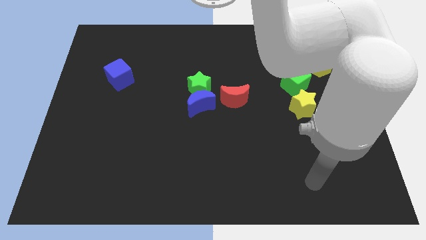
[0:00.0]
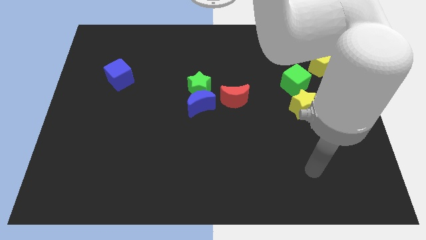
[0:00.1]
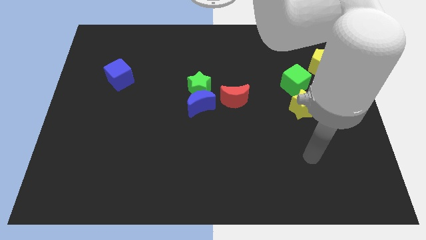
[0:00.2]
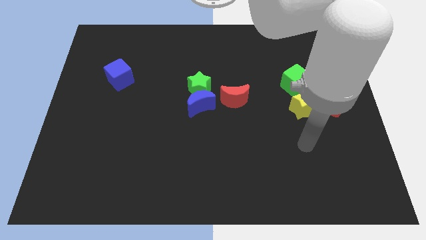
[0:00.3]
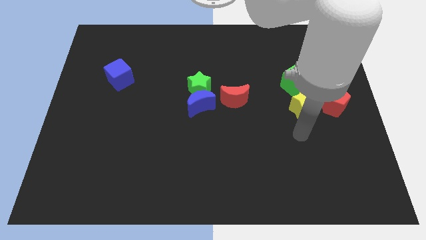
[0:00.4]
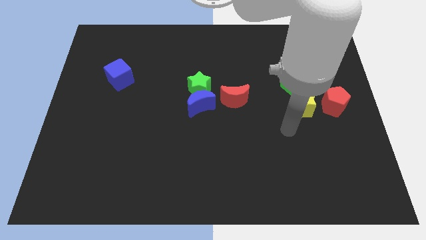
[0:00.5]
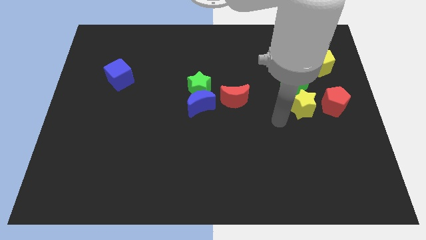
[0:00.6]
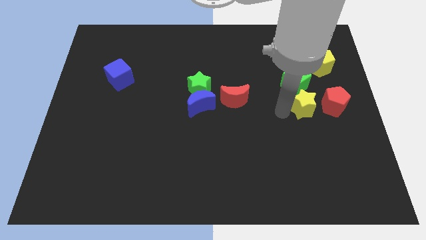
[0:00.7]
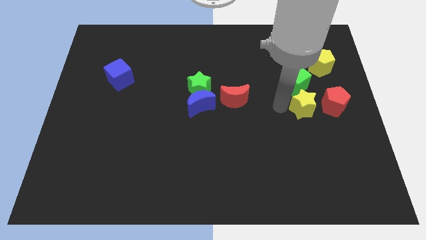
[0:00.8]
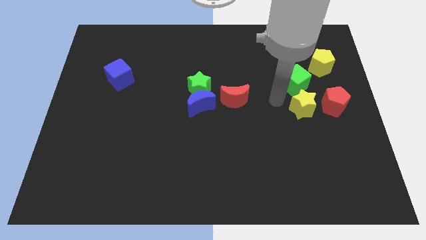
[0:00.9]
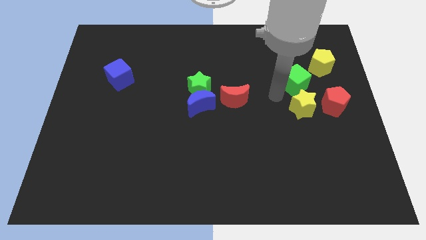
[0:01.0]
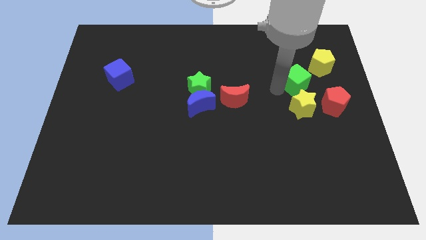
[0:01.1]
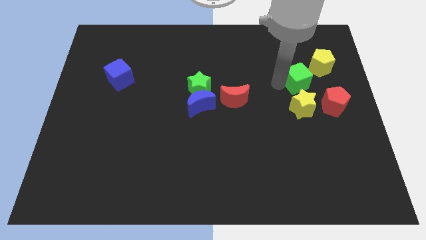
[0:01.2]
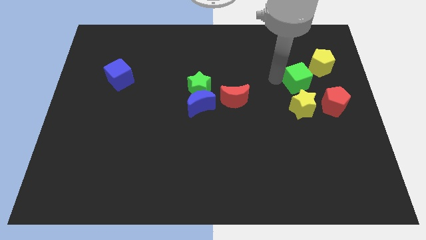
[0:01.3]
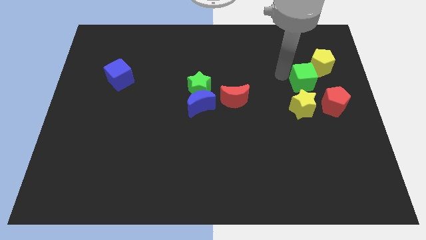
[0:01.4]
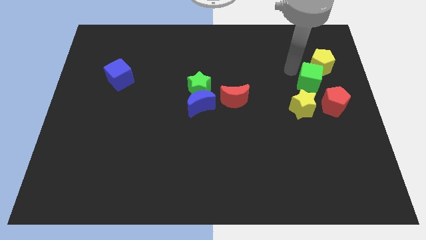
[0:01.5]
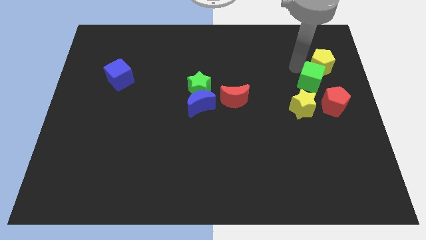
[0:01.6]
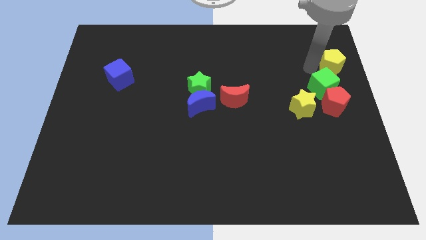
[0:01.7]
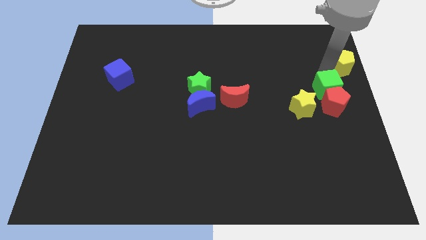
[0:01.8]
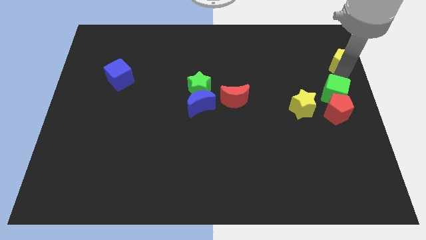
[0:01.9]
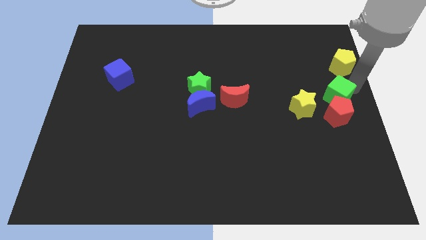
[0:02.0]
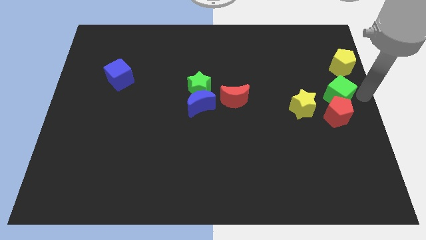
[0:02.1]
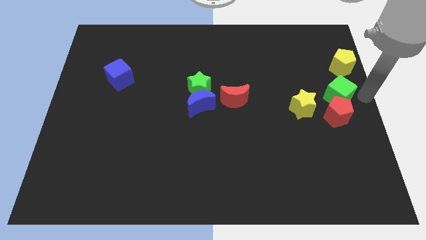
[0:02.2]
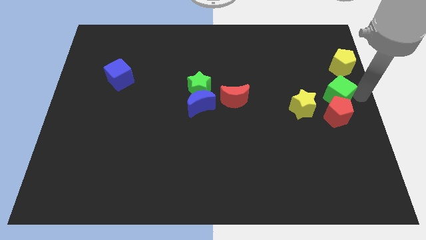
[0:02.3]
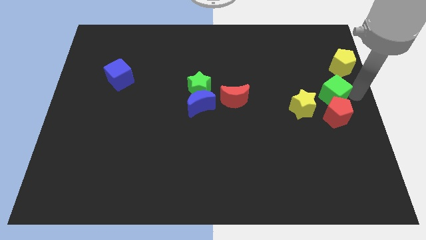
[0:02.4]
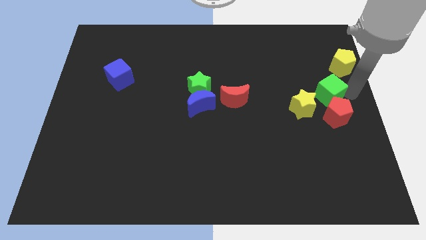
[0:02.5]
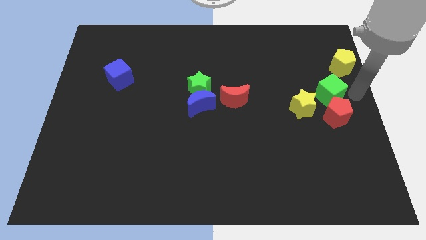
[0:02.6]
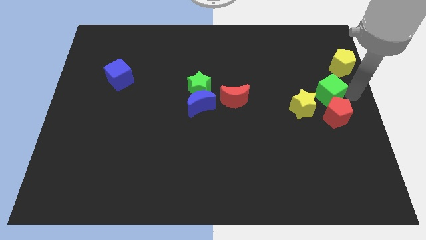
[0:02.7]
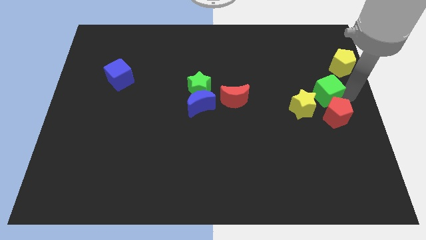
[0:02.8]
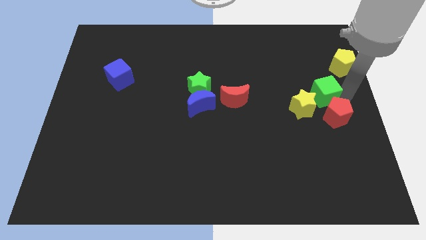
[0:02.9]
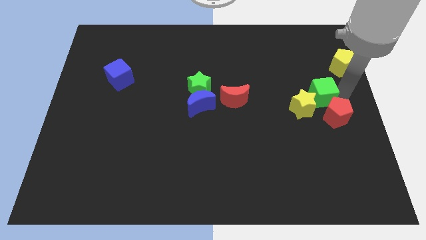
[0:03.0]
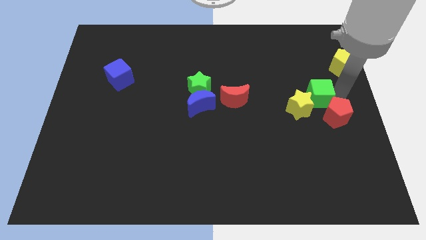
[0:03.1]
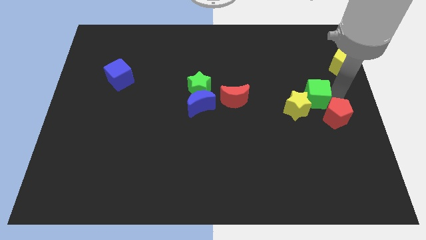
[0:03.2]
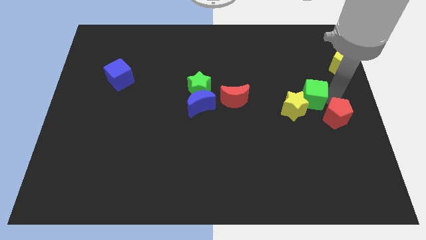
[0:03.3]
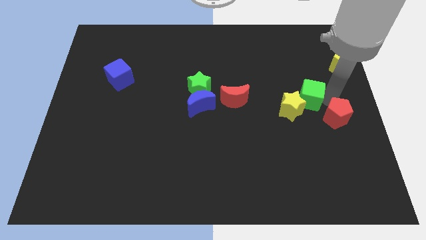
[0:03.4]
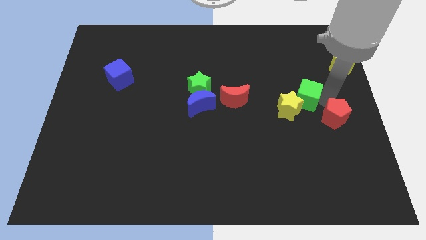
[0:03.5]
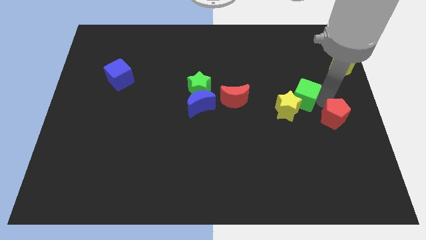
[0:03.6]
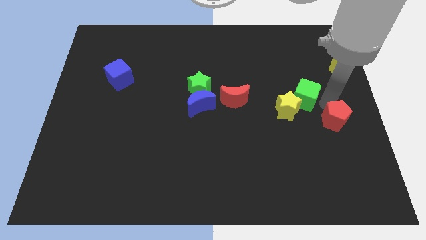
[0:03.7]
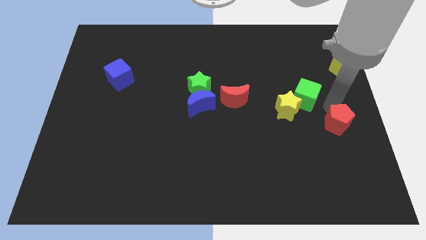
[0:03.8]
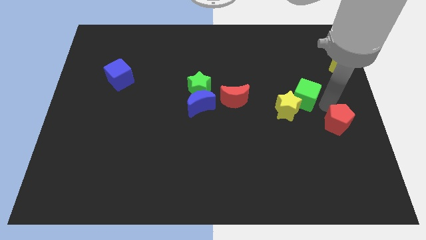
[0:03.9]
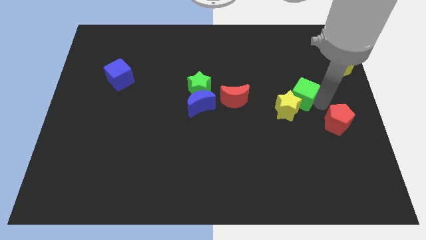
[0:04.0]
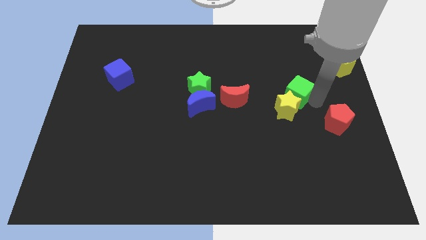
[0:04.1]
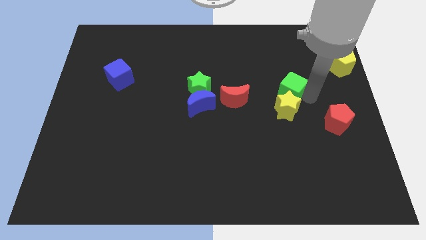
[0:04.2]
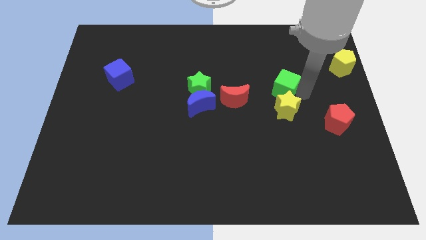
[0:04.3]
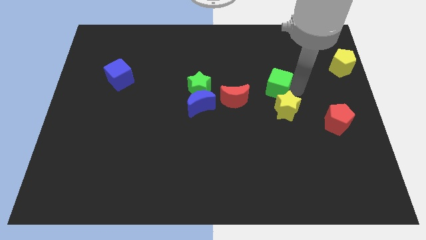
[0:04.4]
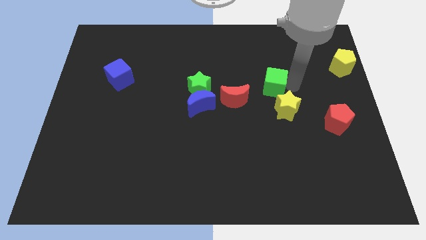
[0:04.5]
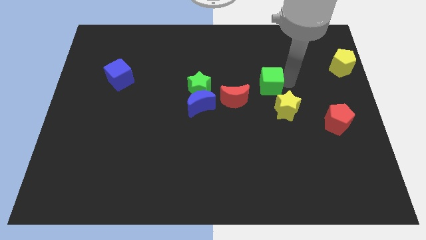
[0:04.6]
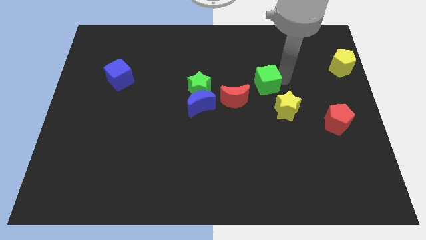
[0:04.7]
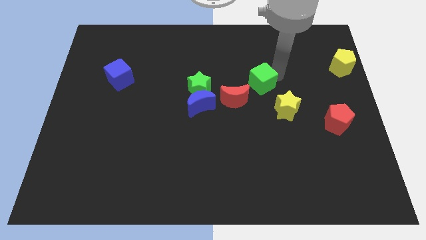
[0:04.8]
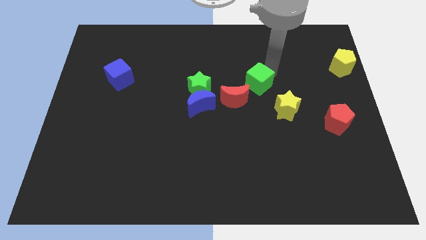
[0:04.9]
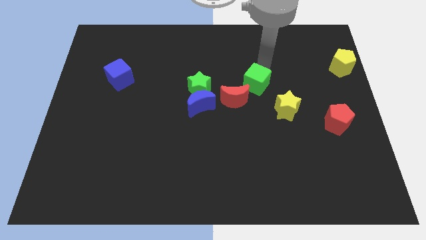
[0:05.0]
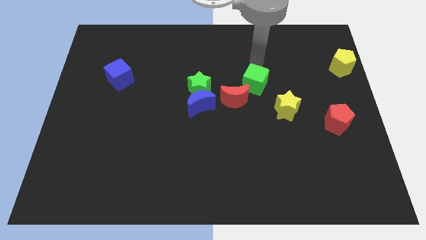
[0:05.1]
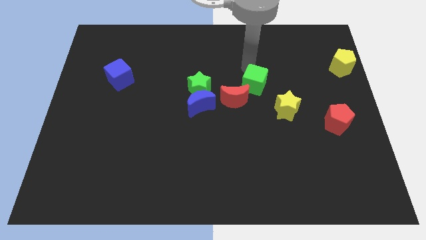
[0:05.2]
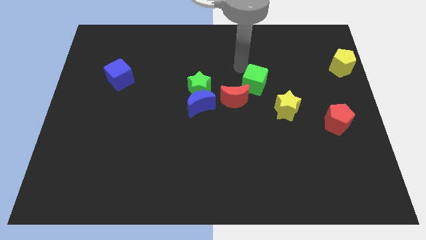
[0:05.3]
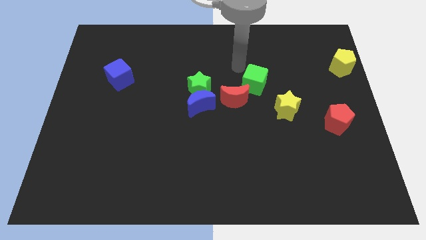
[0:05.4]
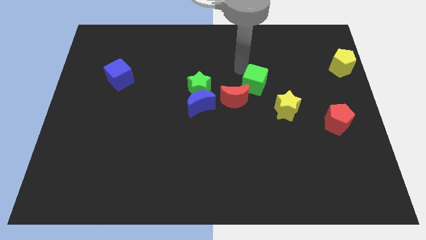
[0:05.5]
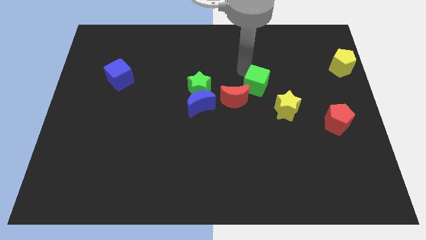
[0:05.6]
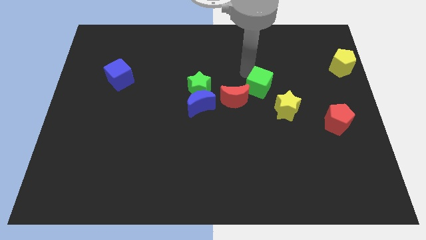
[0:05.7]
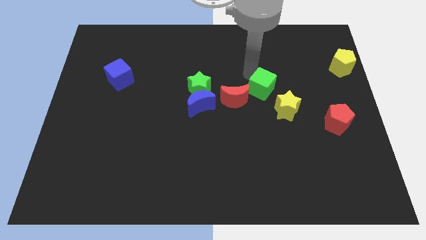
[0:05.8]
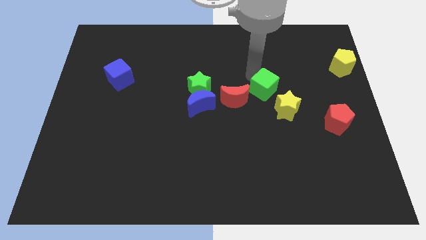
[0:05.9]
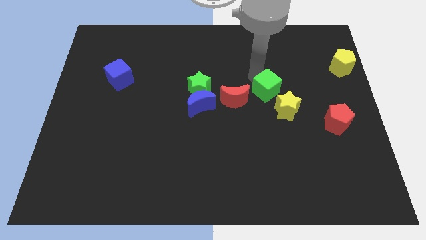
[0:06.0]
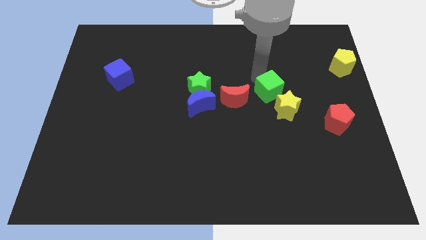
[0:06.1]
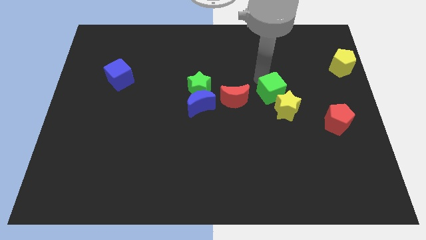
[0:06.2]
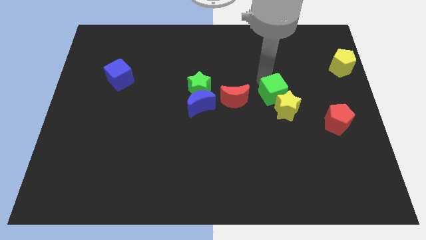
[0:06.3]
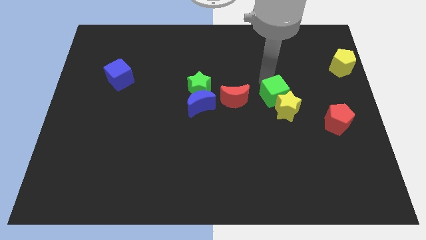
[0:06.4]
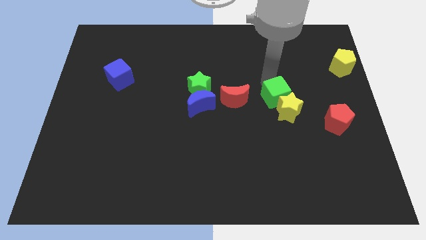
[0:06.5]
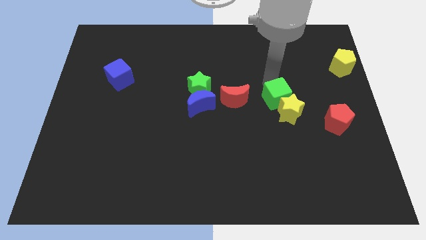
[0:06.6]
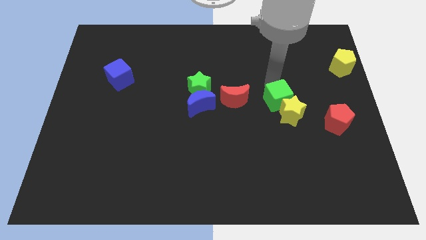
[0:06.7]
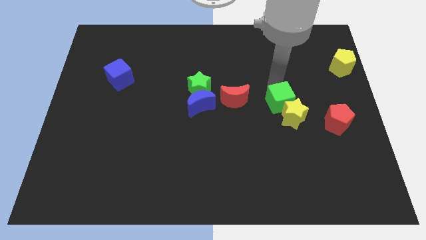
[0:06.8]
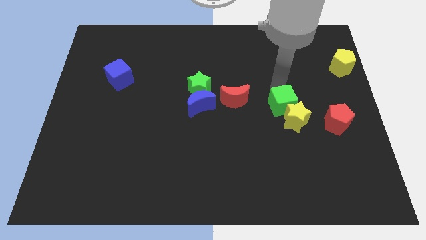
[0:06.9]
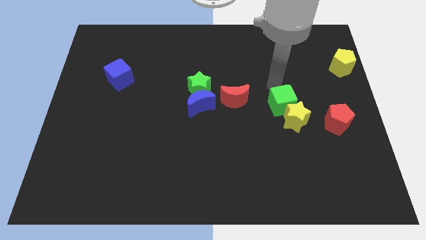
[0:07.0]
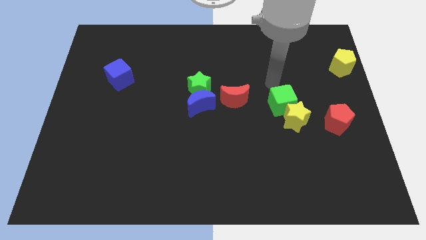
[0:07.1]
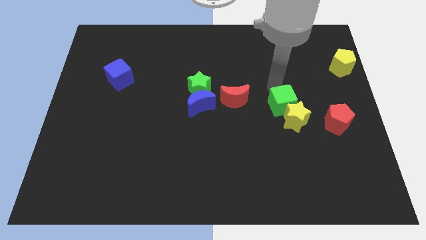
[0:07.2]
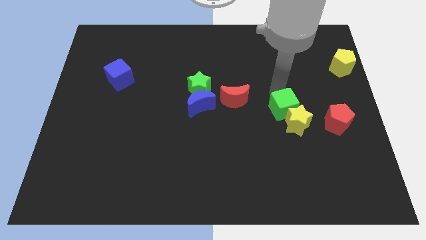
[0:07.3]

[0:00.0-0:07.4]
slightly push the green cube downwards

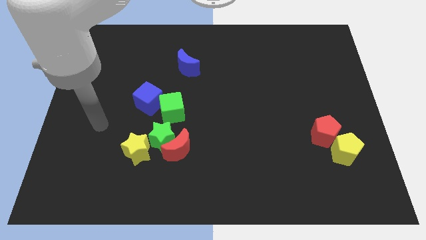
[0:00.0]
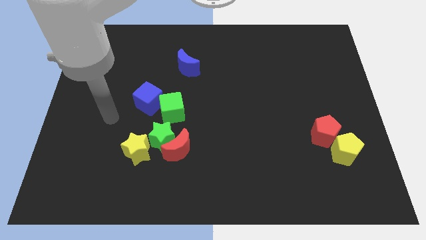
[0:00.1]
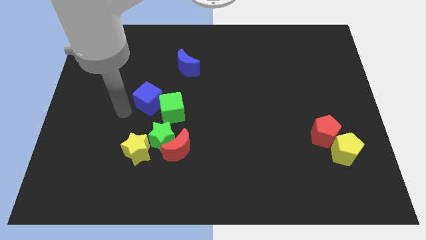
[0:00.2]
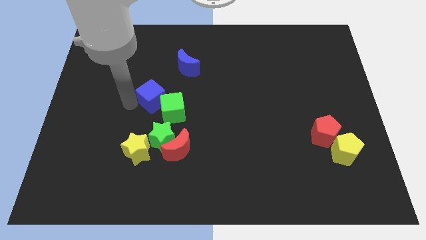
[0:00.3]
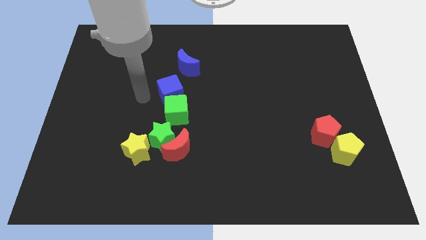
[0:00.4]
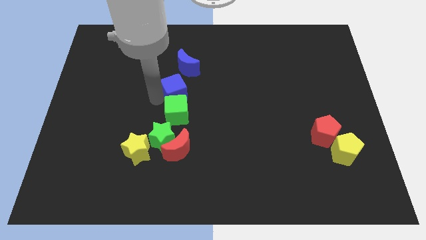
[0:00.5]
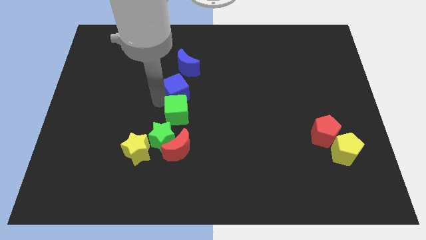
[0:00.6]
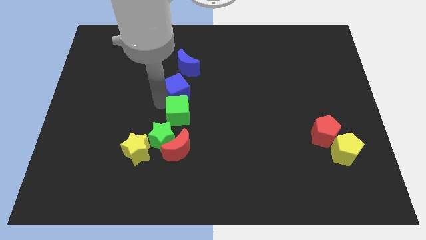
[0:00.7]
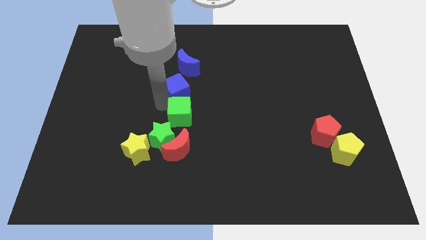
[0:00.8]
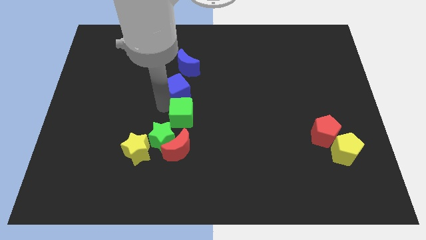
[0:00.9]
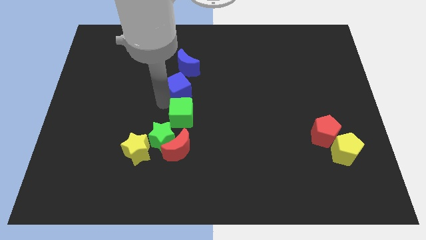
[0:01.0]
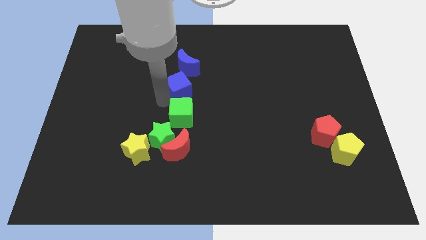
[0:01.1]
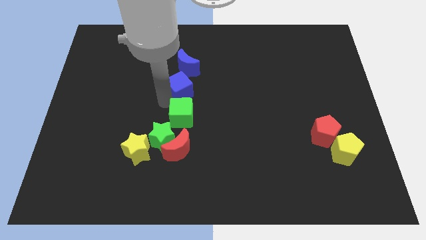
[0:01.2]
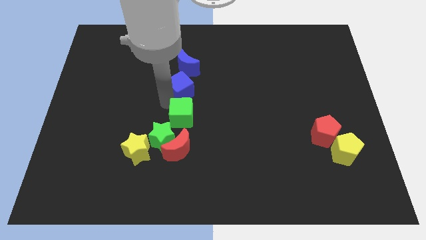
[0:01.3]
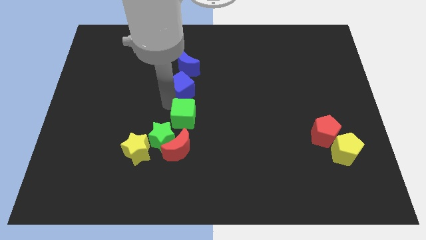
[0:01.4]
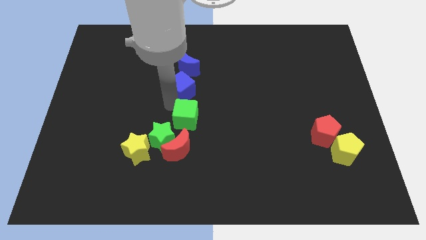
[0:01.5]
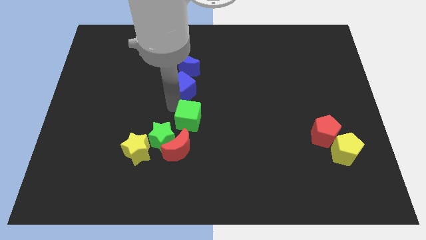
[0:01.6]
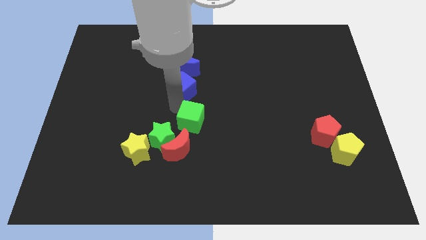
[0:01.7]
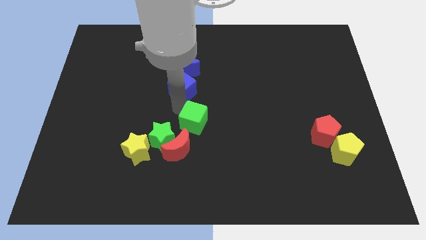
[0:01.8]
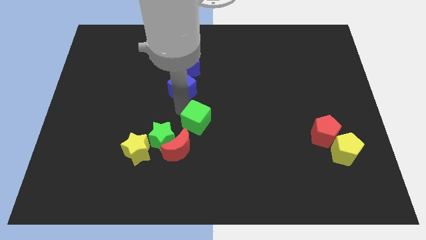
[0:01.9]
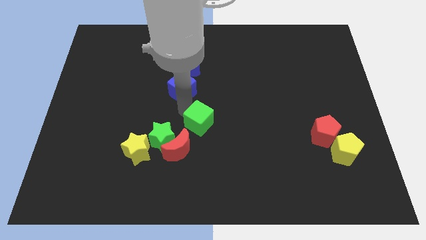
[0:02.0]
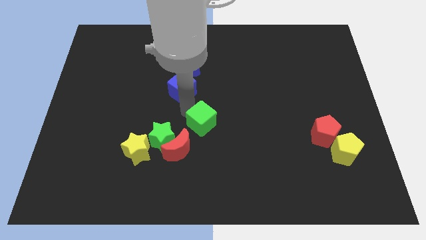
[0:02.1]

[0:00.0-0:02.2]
slightly move the green cube down and to the right diagonally
